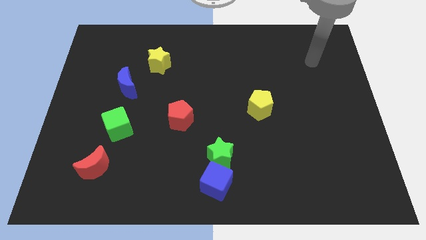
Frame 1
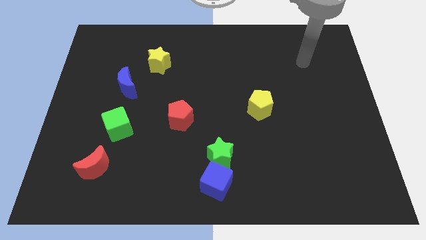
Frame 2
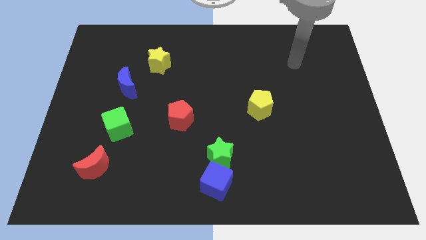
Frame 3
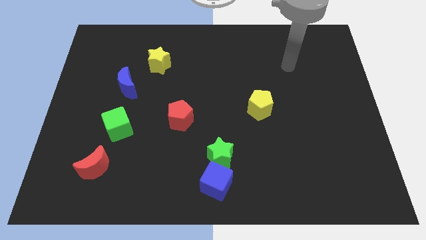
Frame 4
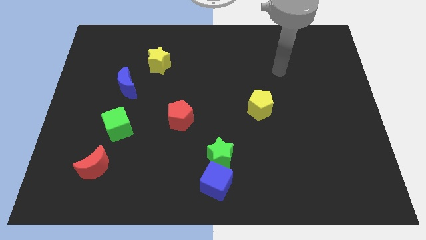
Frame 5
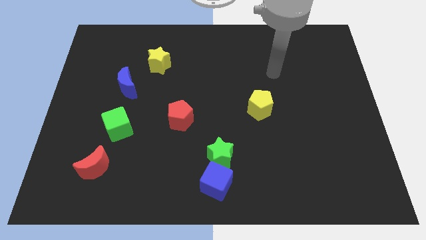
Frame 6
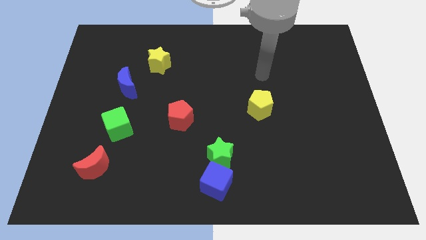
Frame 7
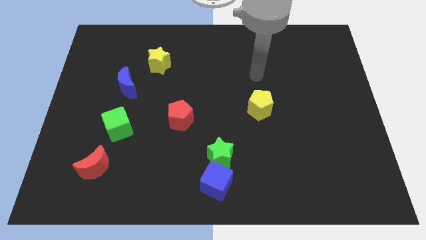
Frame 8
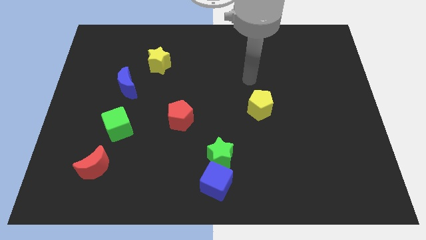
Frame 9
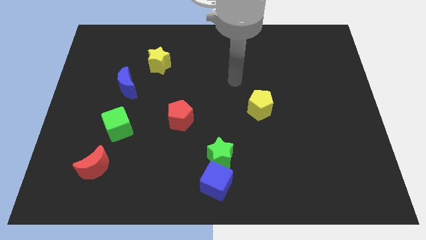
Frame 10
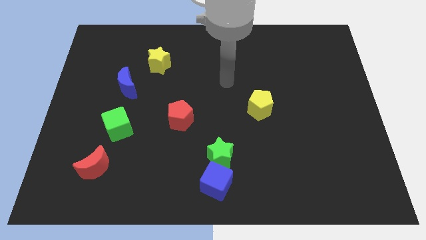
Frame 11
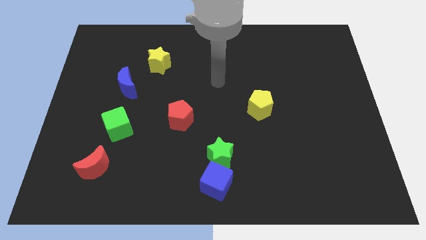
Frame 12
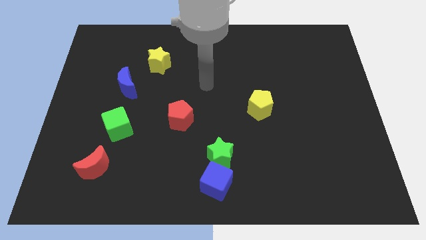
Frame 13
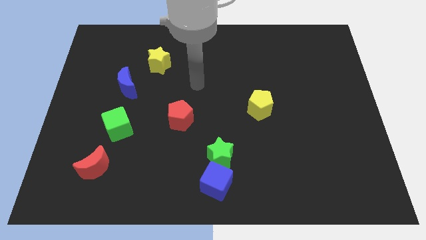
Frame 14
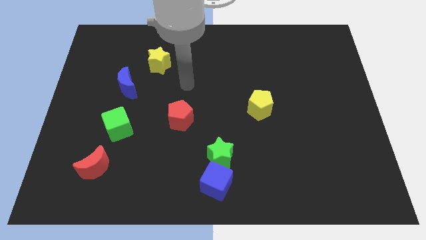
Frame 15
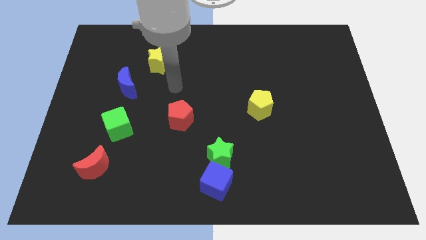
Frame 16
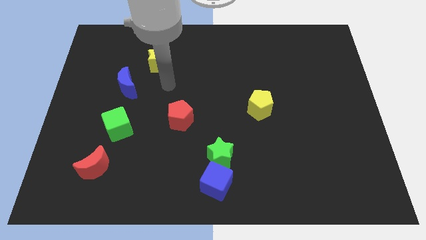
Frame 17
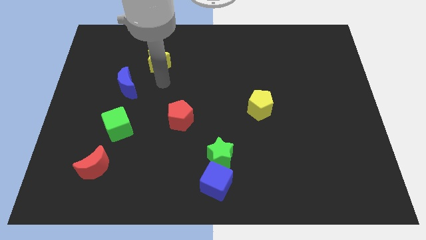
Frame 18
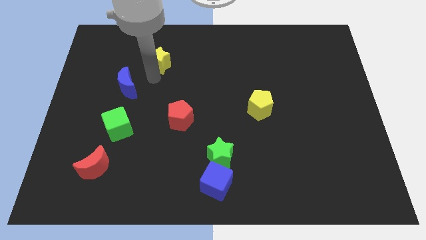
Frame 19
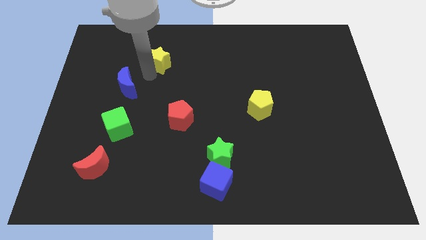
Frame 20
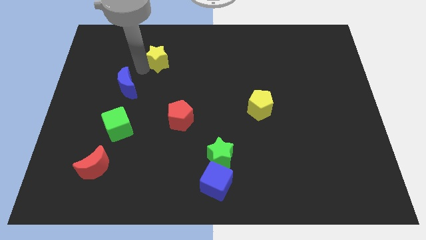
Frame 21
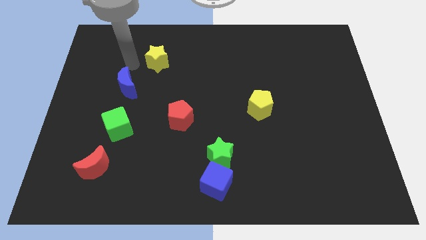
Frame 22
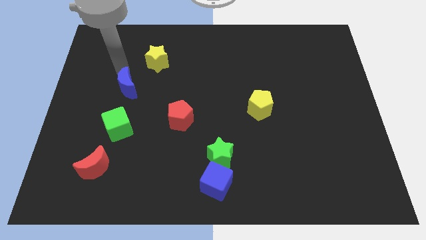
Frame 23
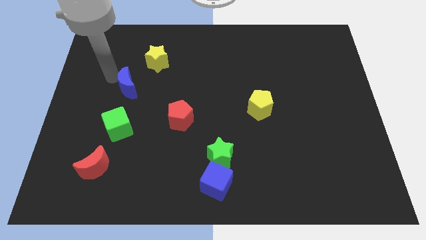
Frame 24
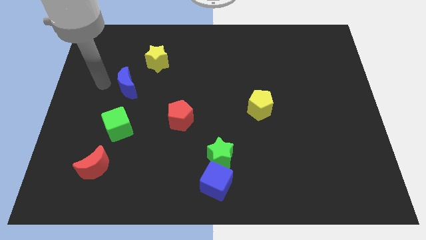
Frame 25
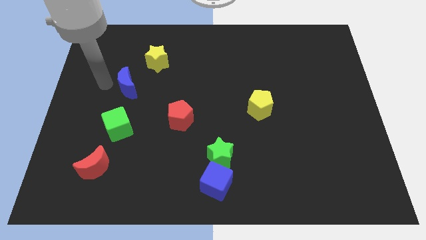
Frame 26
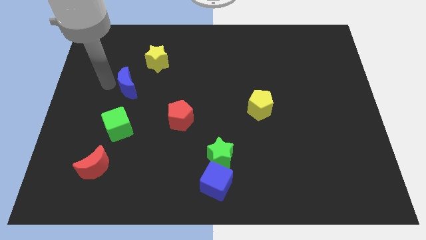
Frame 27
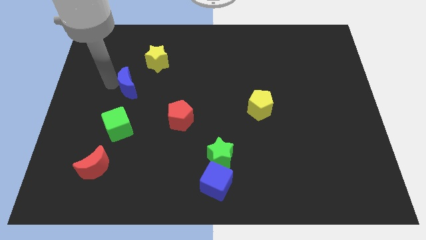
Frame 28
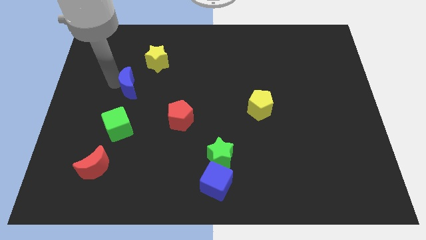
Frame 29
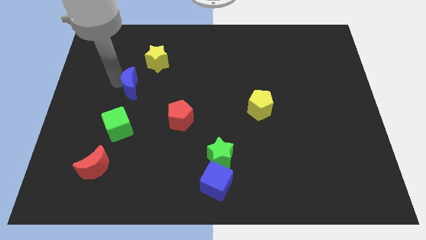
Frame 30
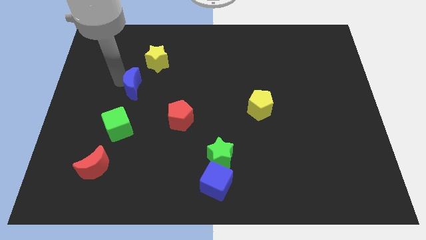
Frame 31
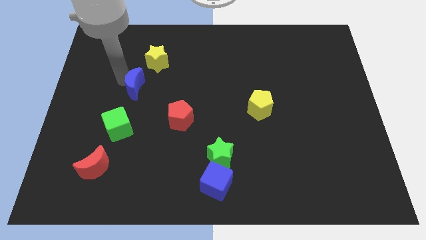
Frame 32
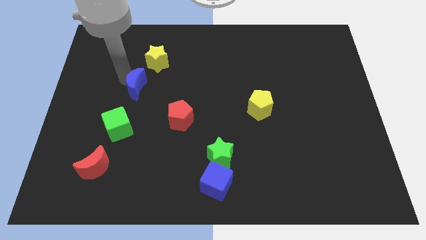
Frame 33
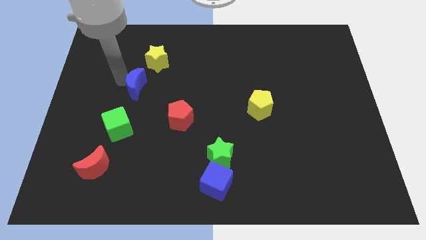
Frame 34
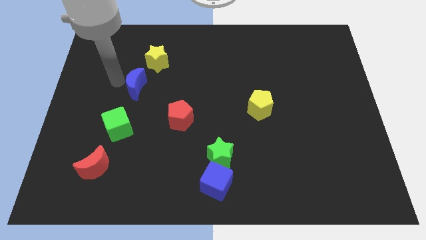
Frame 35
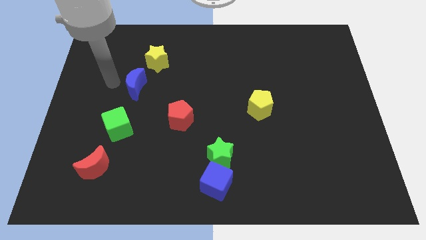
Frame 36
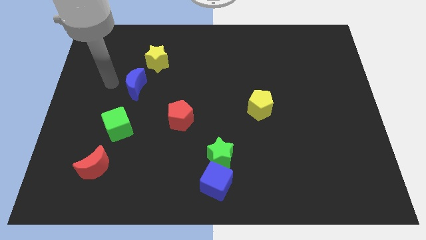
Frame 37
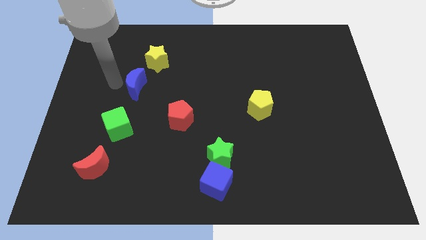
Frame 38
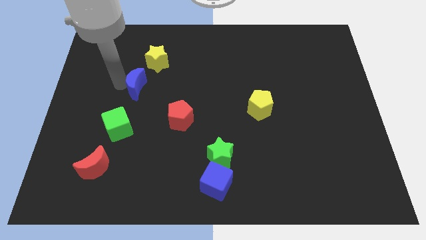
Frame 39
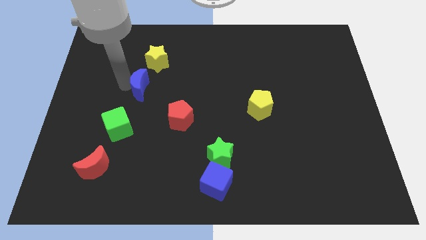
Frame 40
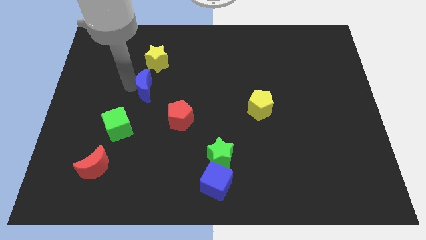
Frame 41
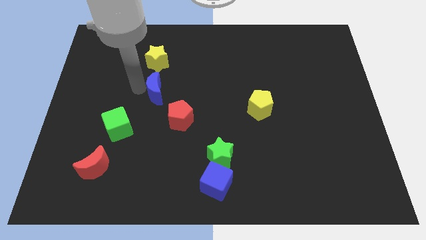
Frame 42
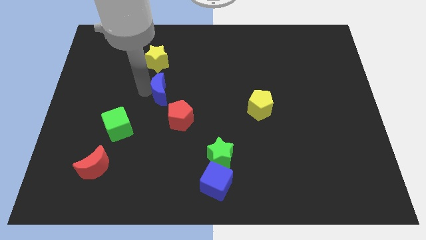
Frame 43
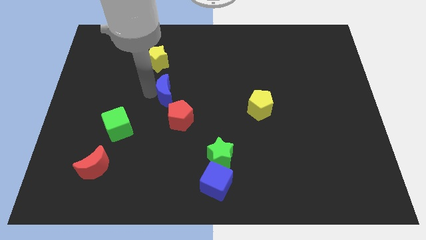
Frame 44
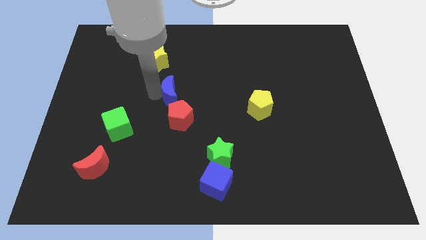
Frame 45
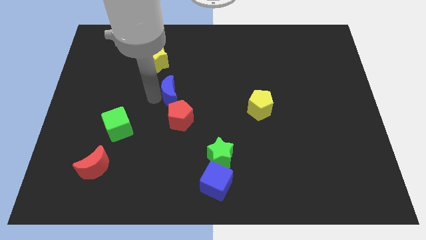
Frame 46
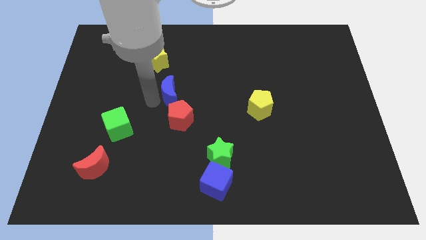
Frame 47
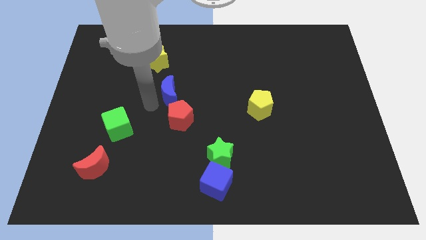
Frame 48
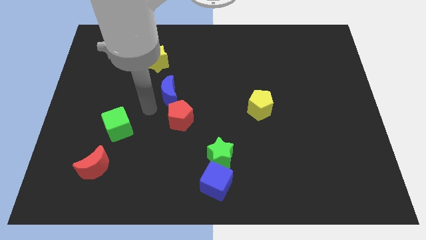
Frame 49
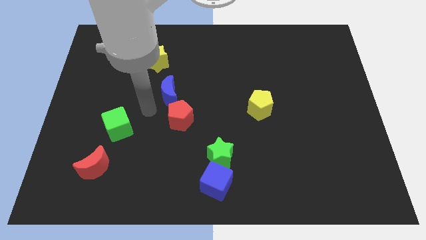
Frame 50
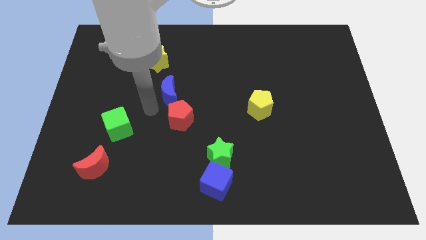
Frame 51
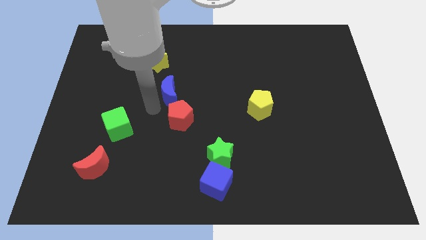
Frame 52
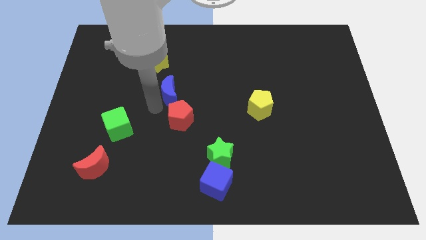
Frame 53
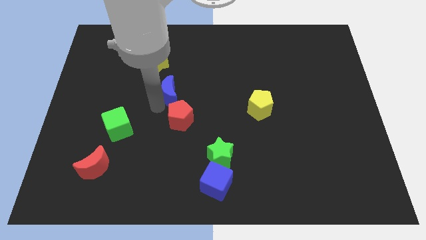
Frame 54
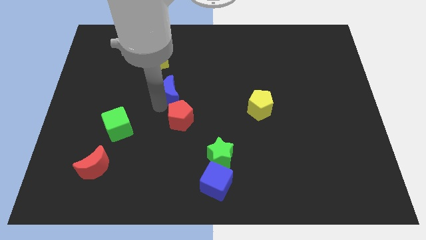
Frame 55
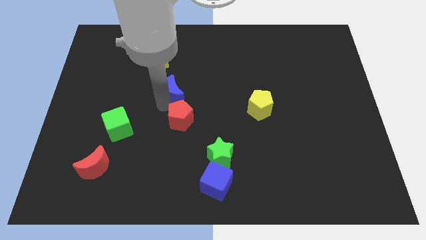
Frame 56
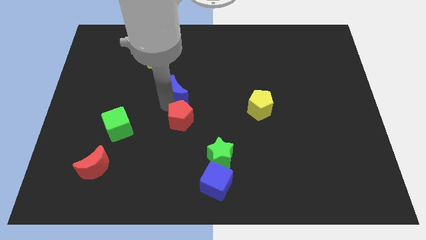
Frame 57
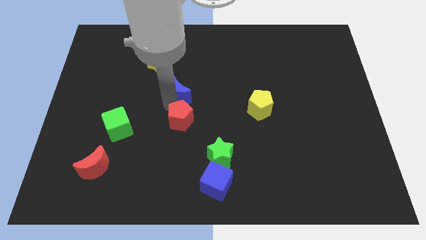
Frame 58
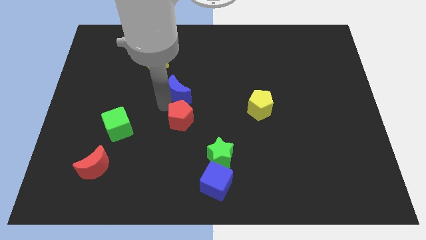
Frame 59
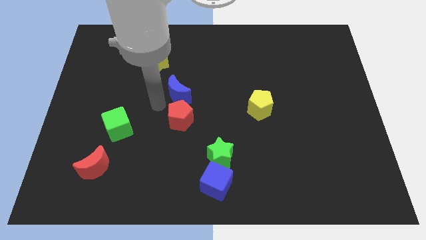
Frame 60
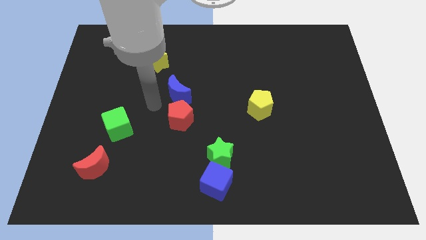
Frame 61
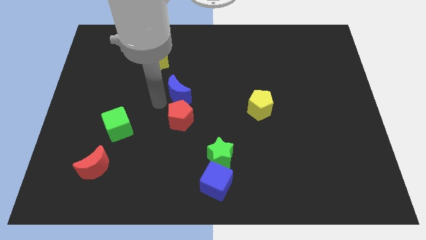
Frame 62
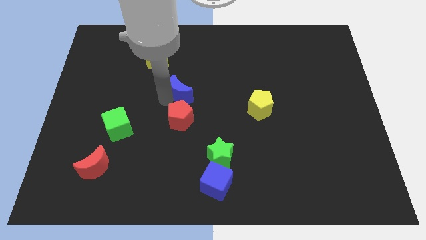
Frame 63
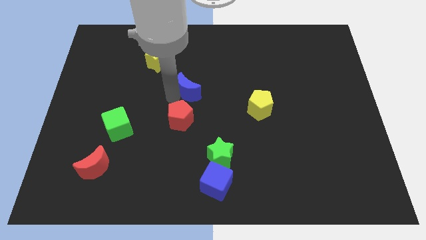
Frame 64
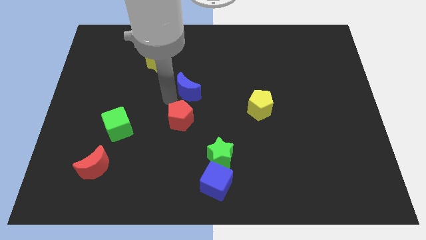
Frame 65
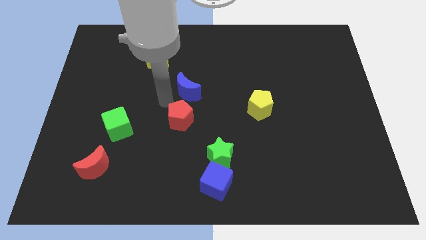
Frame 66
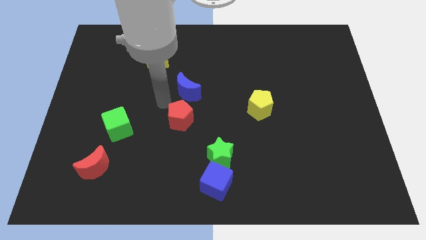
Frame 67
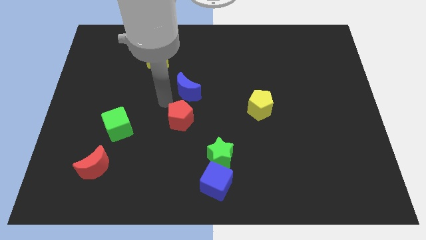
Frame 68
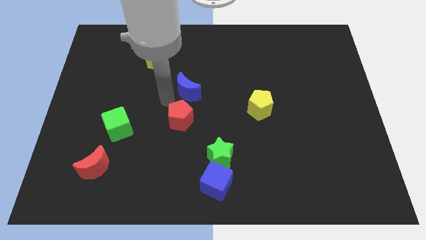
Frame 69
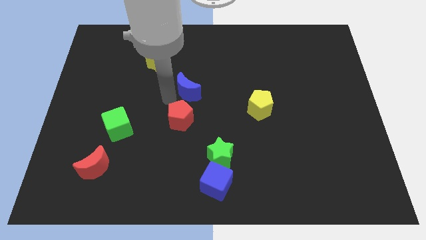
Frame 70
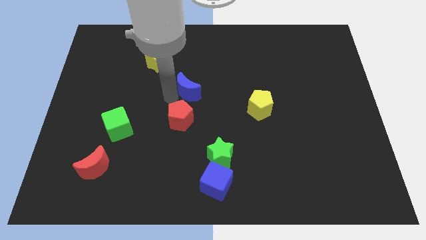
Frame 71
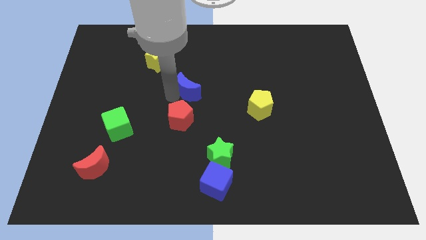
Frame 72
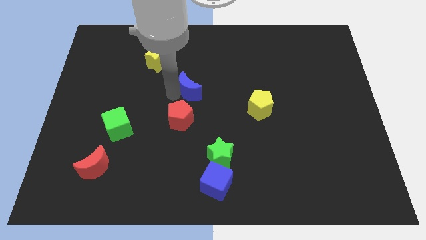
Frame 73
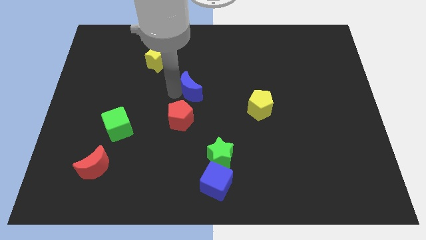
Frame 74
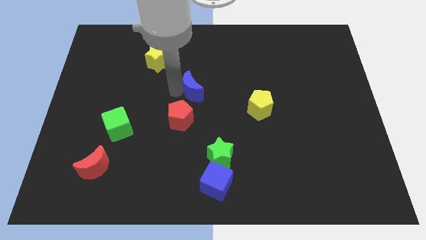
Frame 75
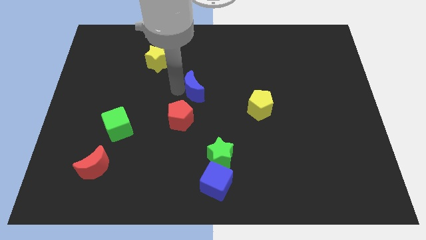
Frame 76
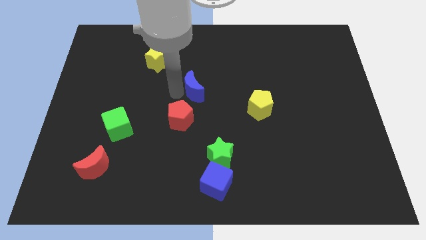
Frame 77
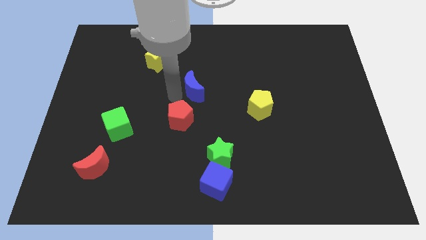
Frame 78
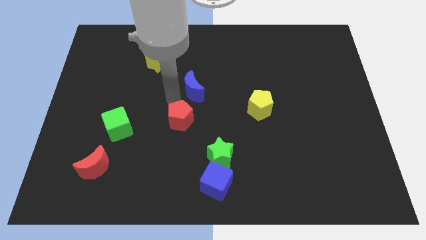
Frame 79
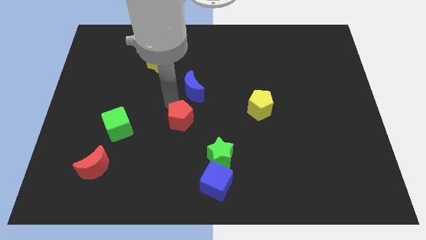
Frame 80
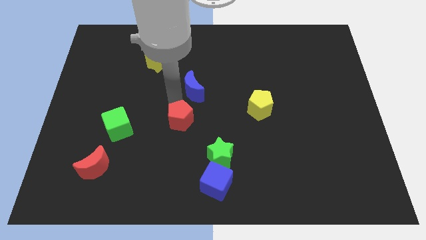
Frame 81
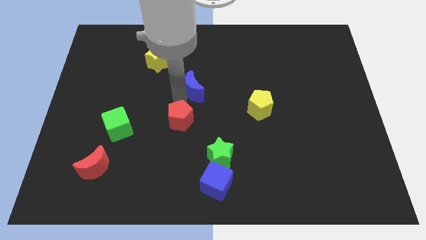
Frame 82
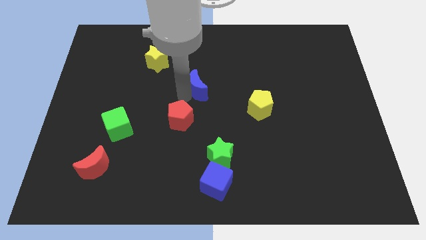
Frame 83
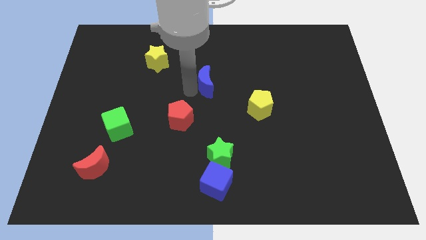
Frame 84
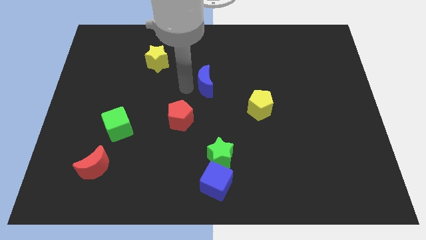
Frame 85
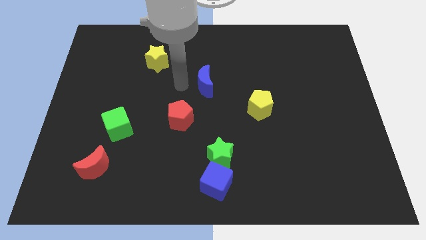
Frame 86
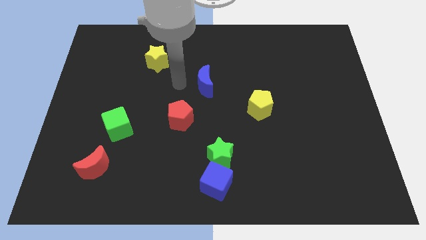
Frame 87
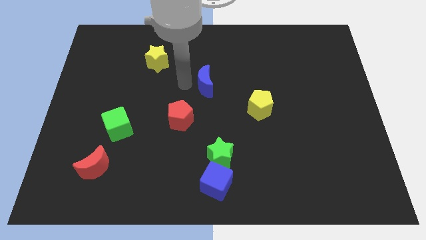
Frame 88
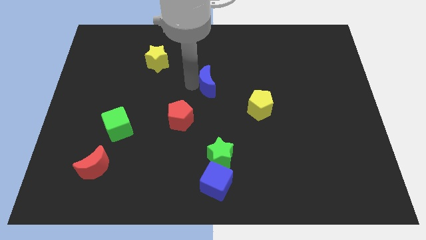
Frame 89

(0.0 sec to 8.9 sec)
slide the blue moon to the right
